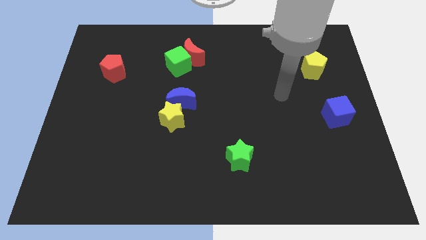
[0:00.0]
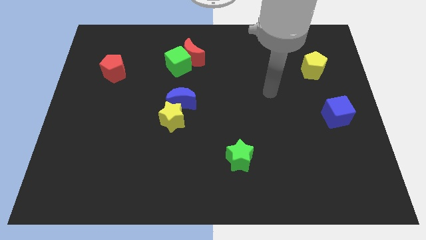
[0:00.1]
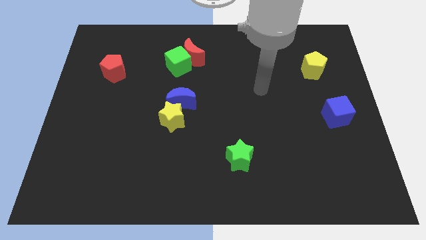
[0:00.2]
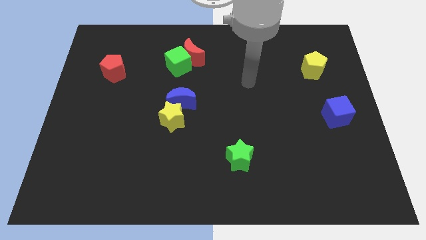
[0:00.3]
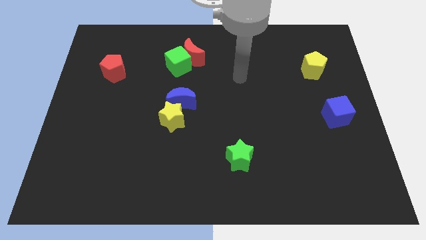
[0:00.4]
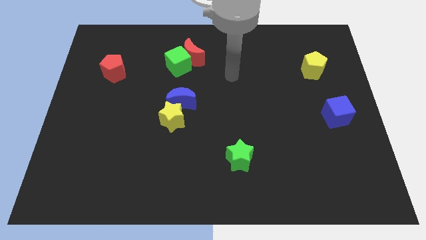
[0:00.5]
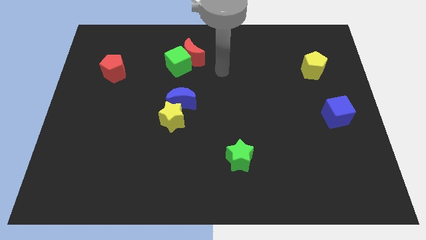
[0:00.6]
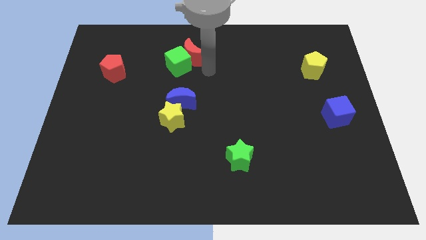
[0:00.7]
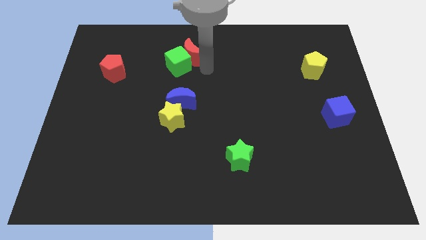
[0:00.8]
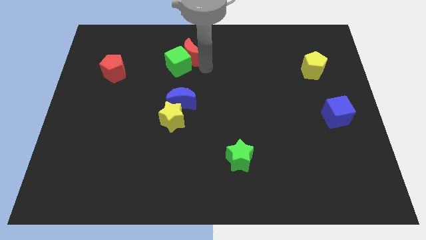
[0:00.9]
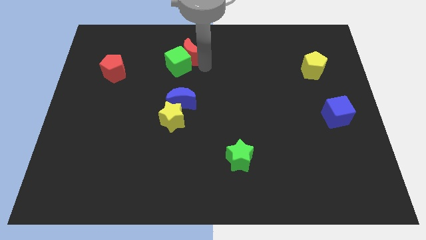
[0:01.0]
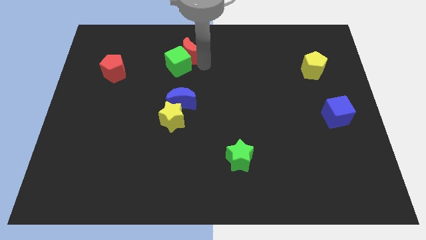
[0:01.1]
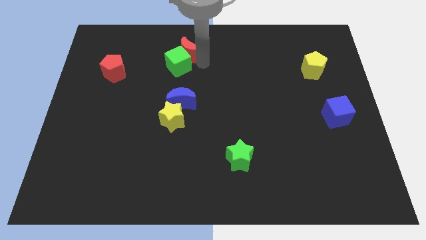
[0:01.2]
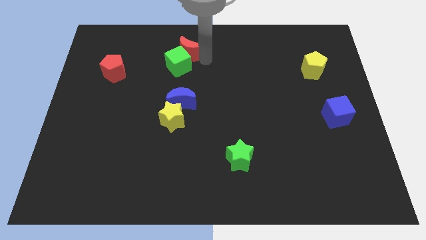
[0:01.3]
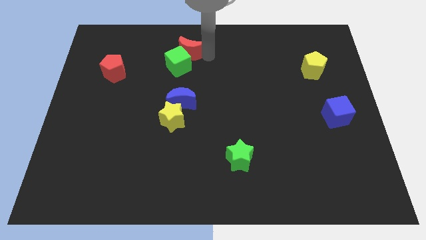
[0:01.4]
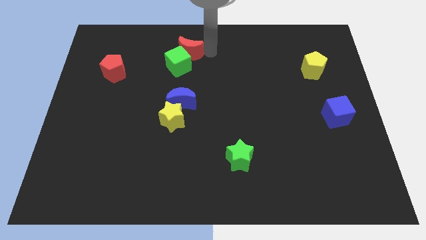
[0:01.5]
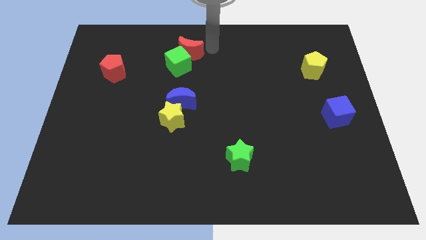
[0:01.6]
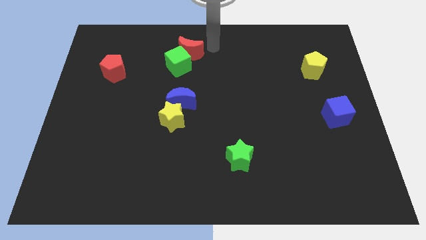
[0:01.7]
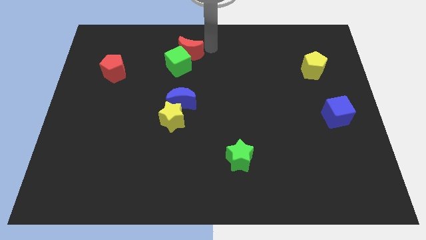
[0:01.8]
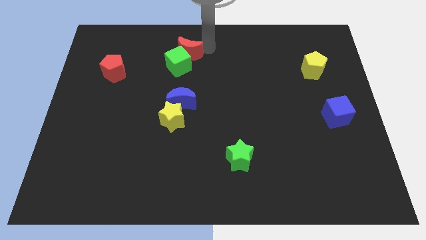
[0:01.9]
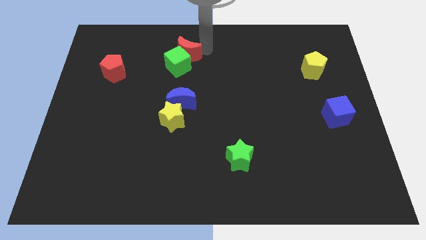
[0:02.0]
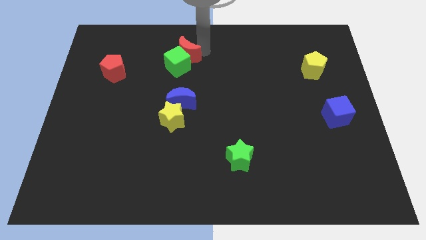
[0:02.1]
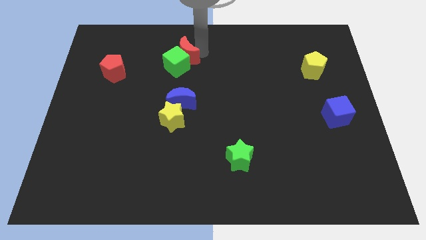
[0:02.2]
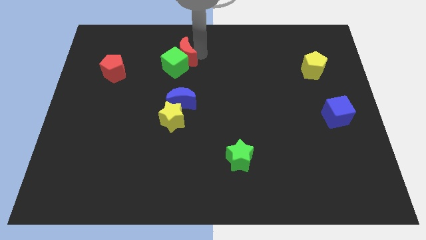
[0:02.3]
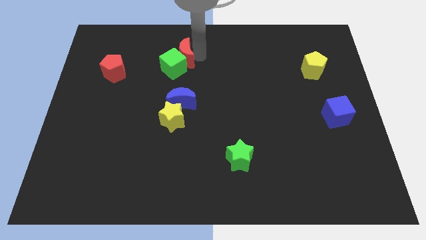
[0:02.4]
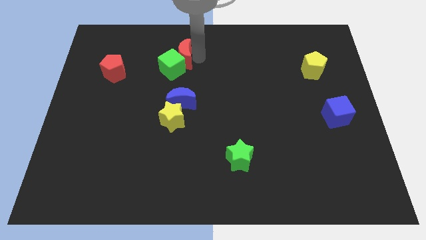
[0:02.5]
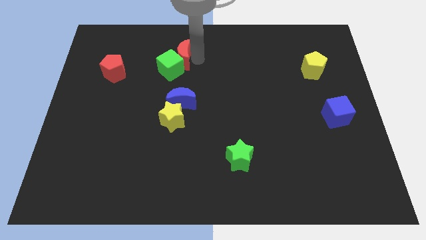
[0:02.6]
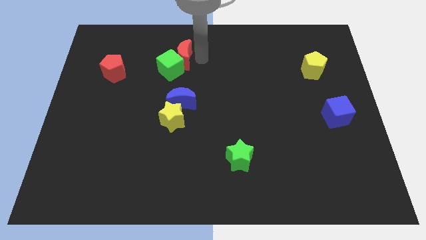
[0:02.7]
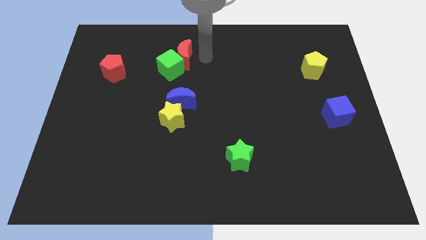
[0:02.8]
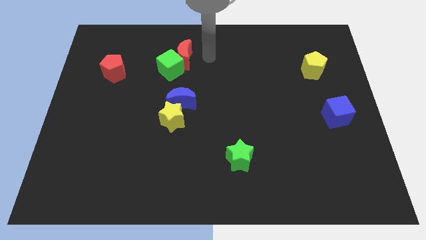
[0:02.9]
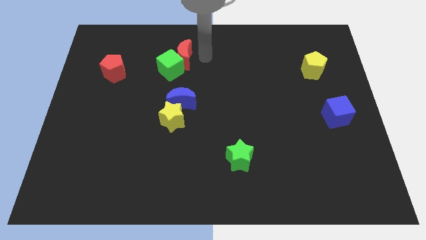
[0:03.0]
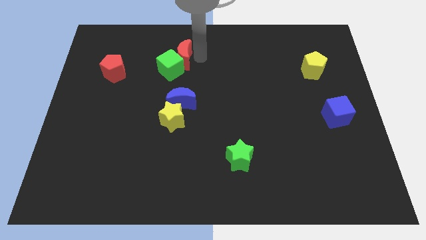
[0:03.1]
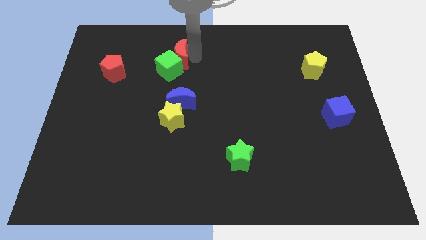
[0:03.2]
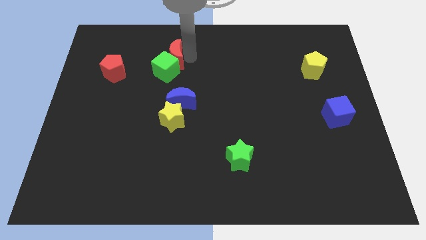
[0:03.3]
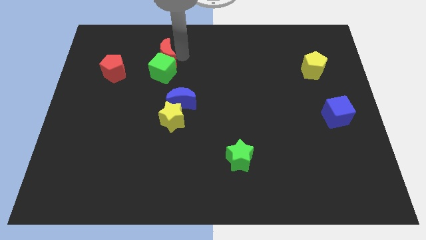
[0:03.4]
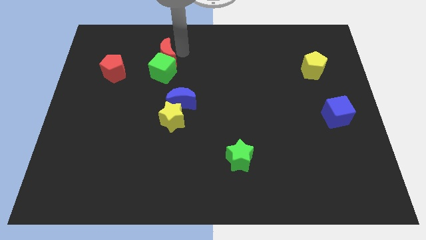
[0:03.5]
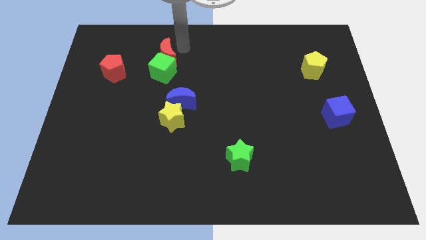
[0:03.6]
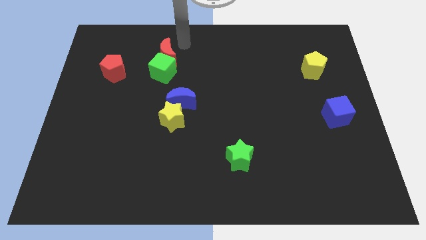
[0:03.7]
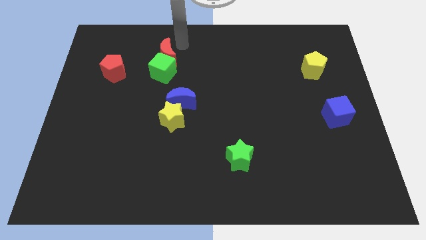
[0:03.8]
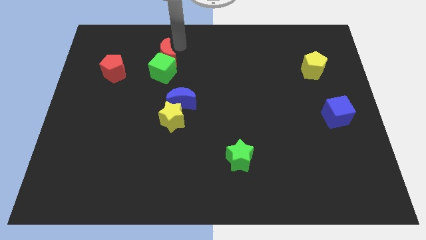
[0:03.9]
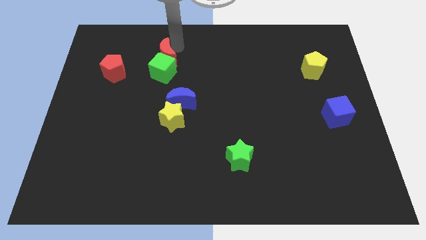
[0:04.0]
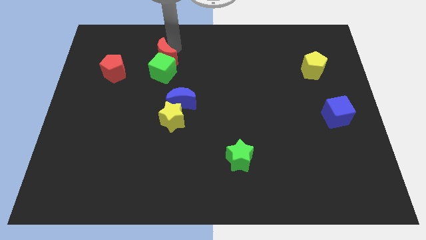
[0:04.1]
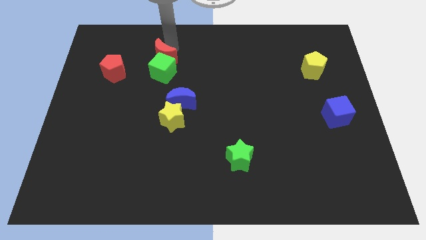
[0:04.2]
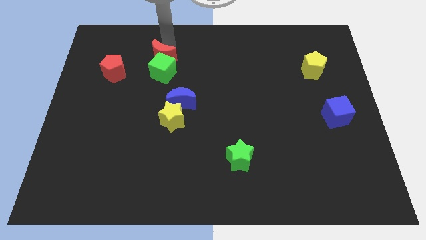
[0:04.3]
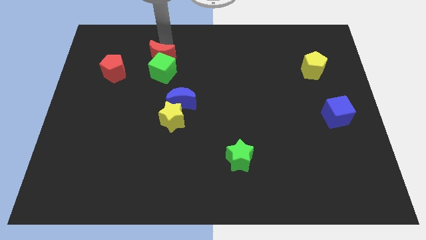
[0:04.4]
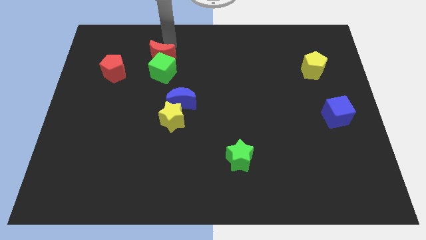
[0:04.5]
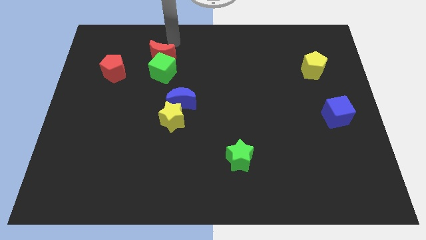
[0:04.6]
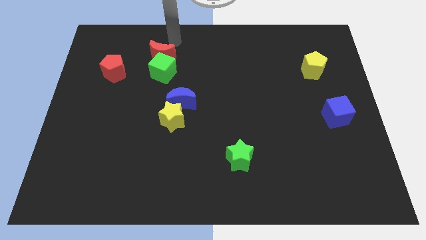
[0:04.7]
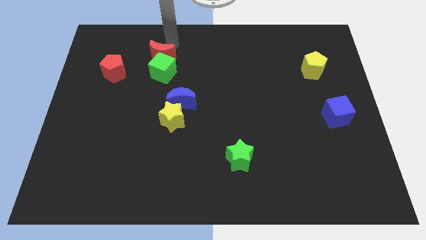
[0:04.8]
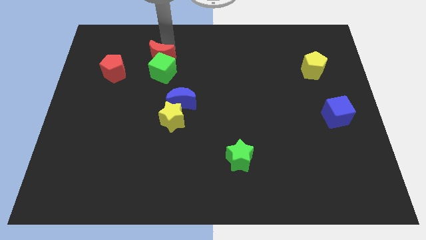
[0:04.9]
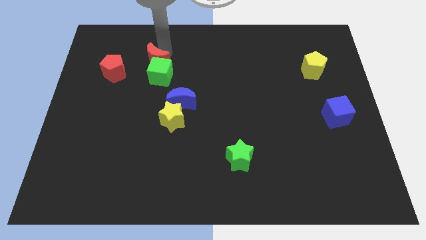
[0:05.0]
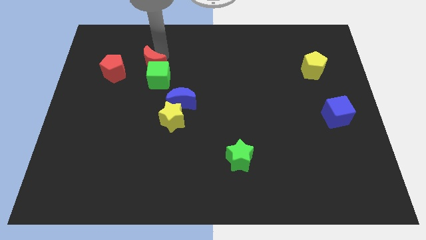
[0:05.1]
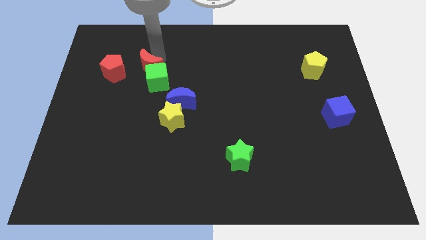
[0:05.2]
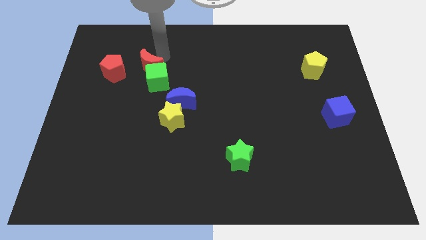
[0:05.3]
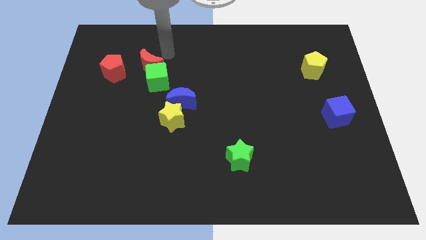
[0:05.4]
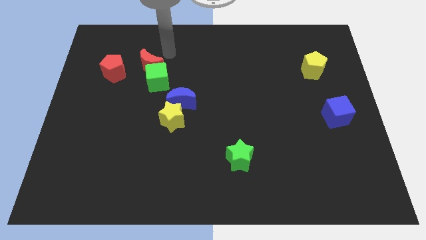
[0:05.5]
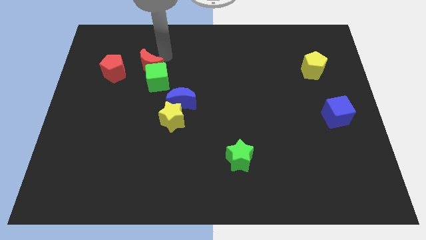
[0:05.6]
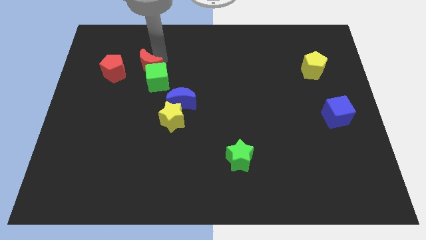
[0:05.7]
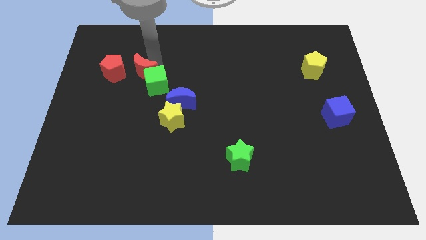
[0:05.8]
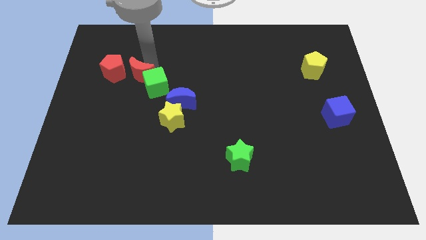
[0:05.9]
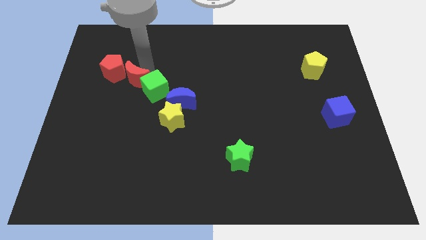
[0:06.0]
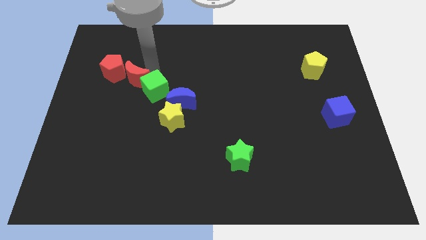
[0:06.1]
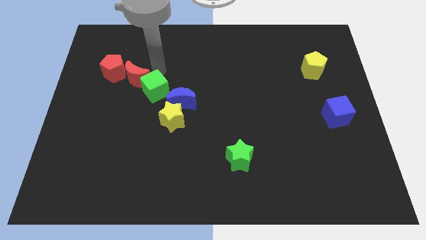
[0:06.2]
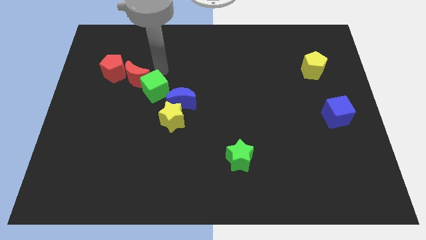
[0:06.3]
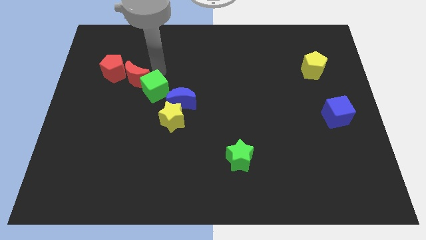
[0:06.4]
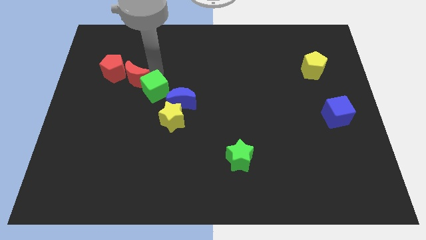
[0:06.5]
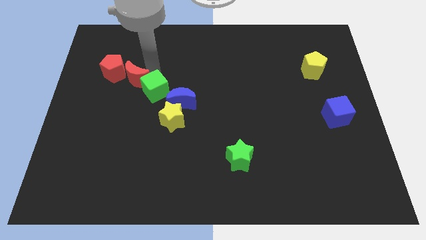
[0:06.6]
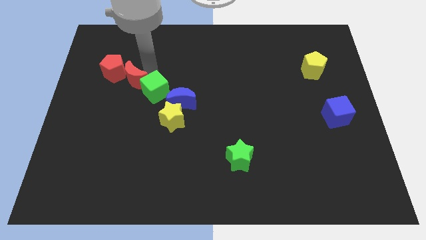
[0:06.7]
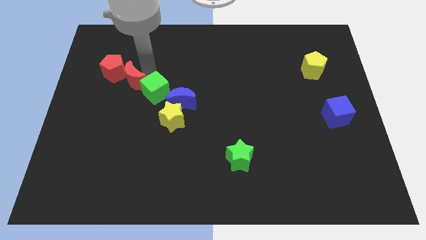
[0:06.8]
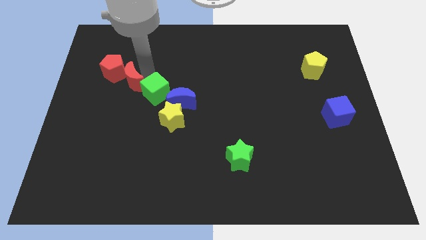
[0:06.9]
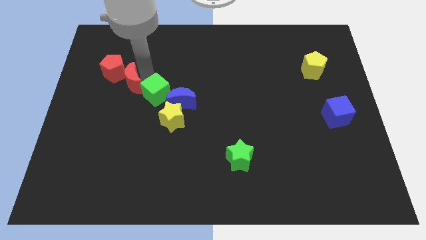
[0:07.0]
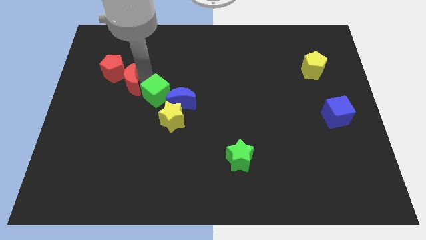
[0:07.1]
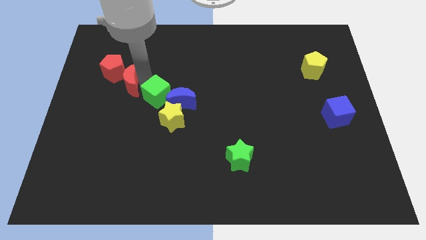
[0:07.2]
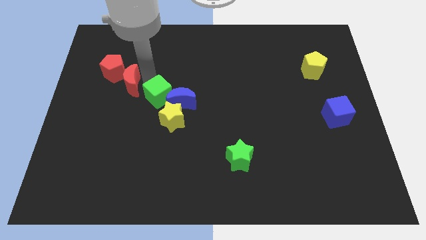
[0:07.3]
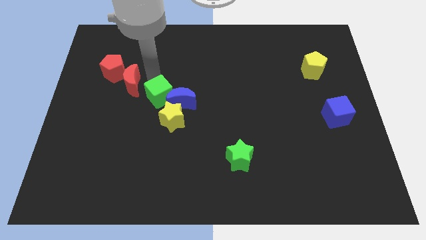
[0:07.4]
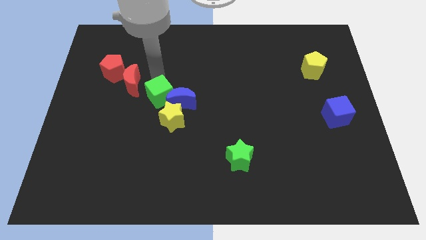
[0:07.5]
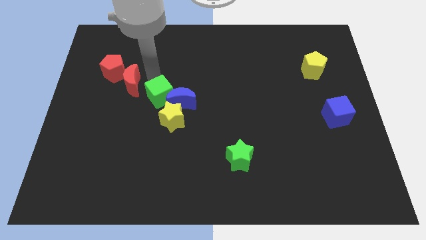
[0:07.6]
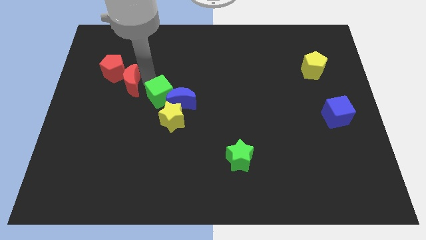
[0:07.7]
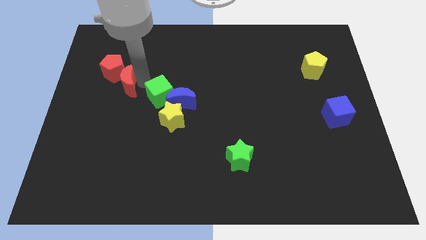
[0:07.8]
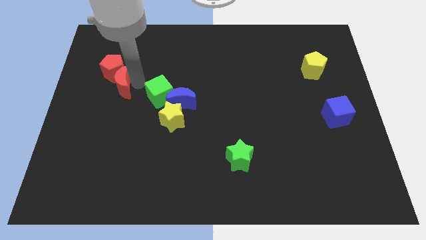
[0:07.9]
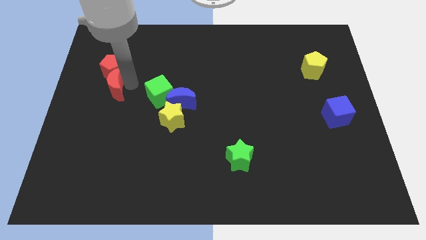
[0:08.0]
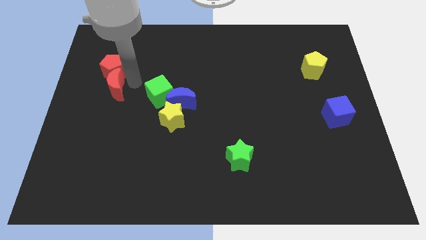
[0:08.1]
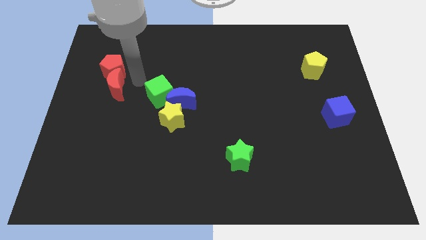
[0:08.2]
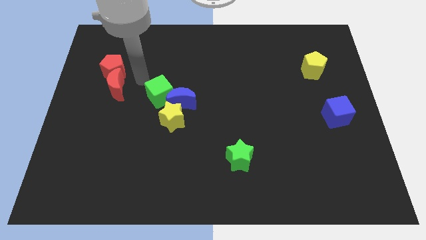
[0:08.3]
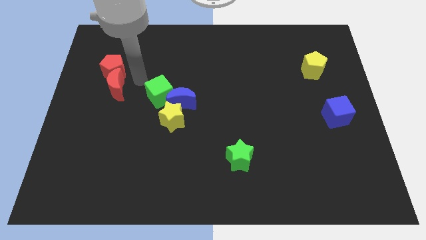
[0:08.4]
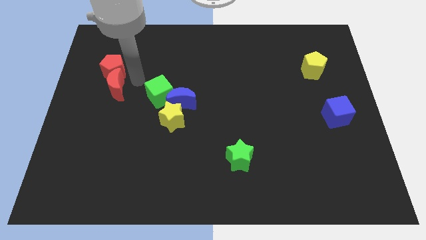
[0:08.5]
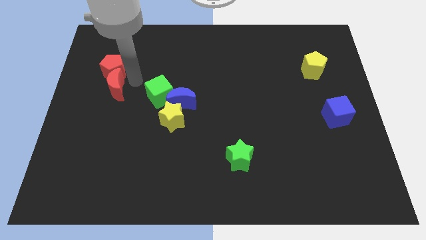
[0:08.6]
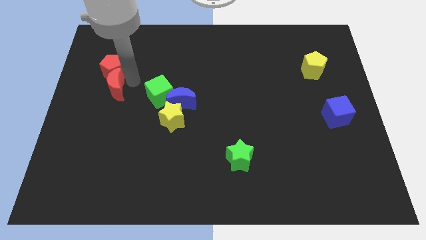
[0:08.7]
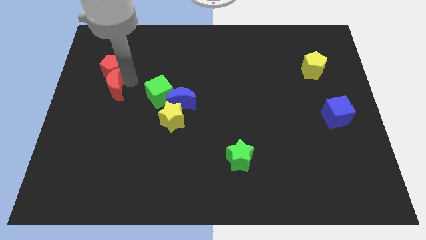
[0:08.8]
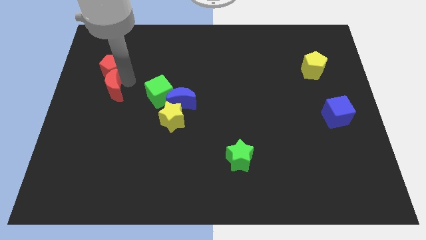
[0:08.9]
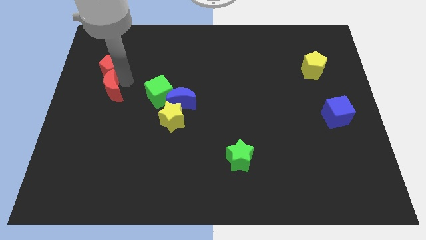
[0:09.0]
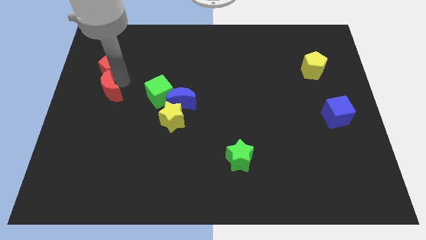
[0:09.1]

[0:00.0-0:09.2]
slide the red moon to the left side
